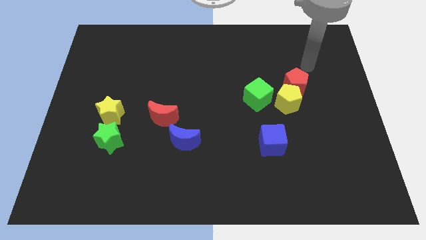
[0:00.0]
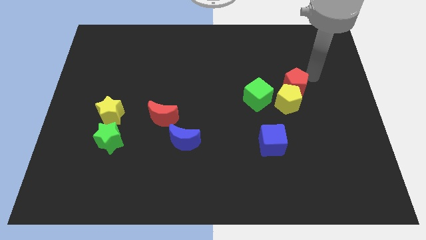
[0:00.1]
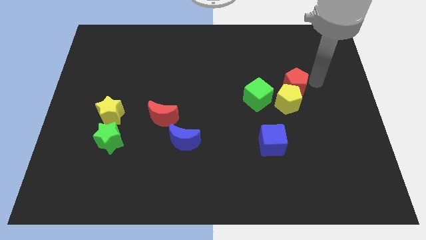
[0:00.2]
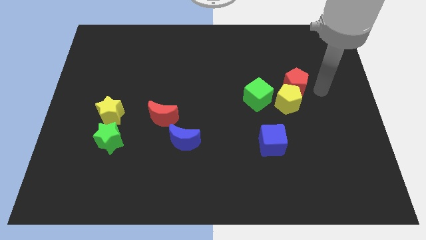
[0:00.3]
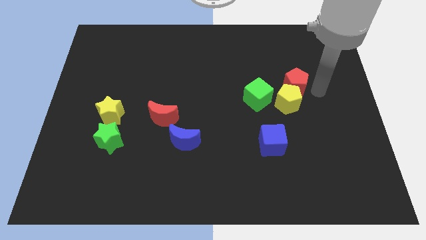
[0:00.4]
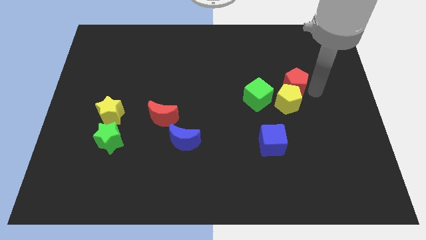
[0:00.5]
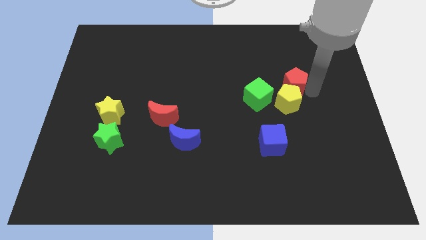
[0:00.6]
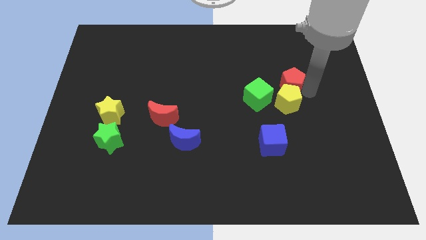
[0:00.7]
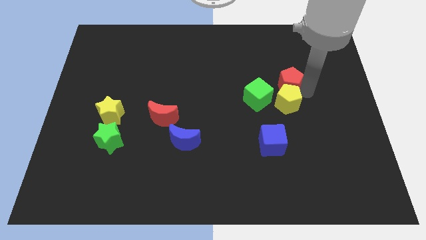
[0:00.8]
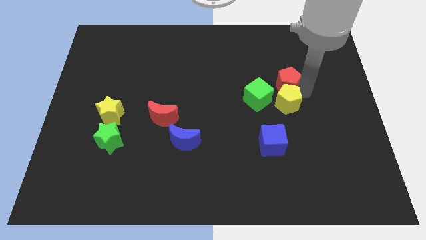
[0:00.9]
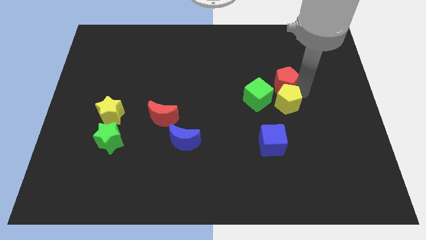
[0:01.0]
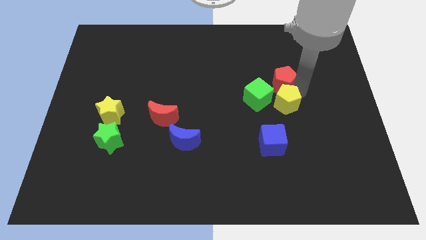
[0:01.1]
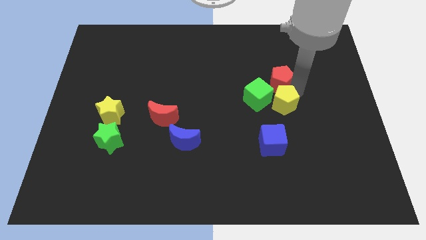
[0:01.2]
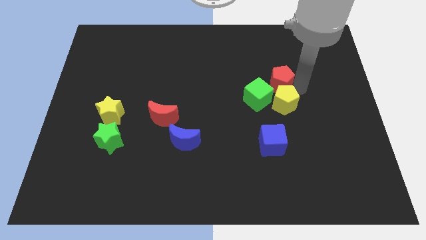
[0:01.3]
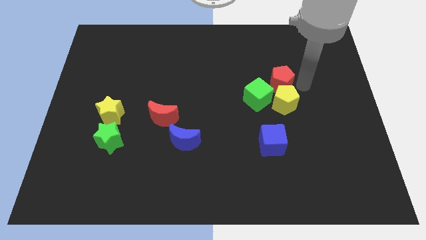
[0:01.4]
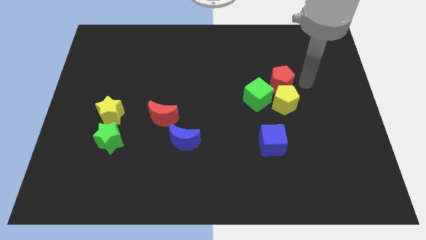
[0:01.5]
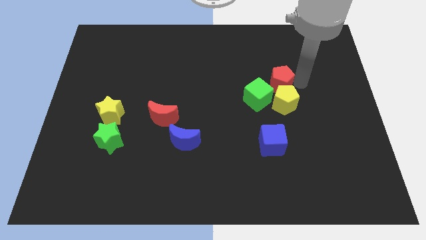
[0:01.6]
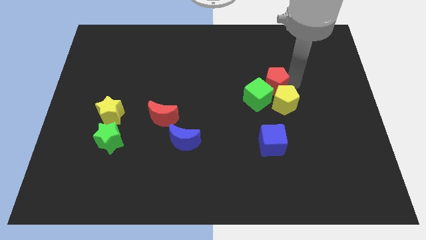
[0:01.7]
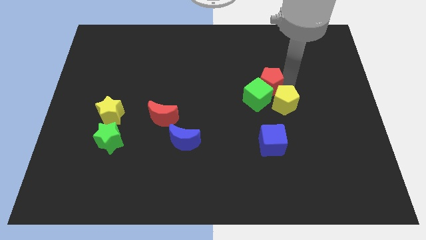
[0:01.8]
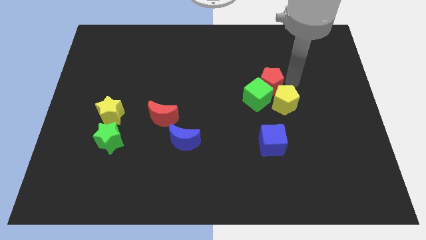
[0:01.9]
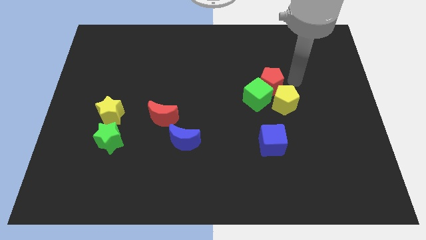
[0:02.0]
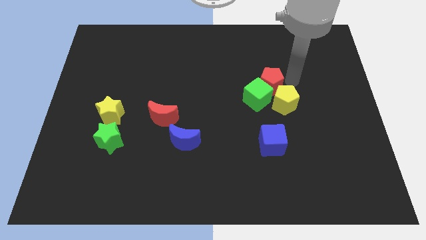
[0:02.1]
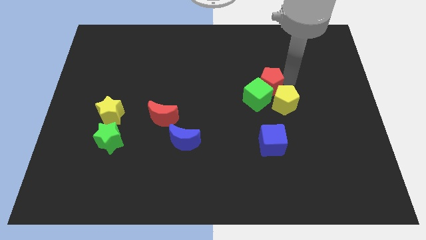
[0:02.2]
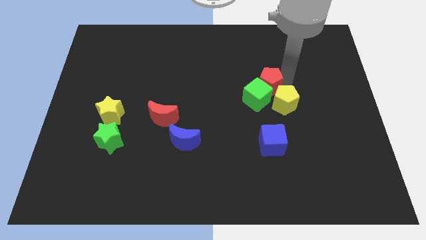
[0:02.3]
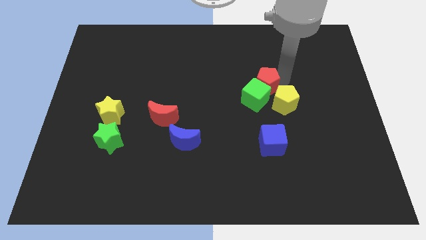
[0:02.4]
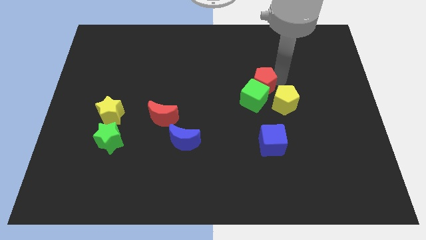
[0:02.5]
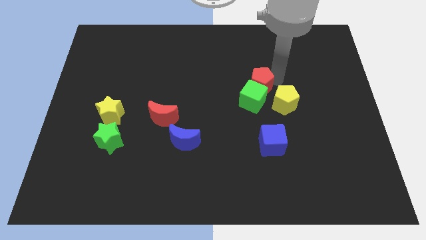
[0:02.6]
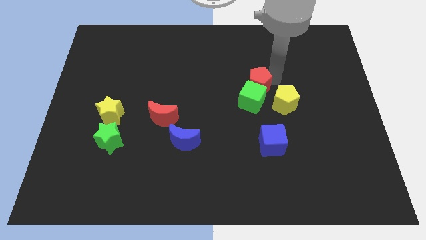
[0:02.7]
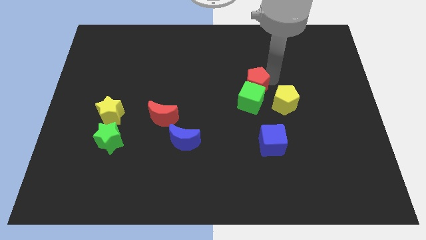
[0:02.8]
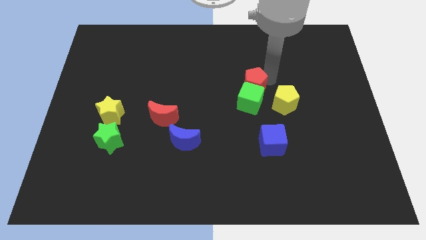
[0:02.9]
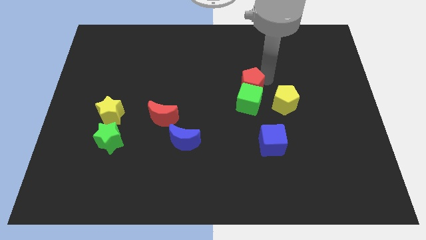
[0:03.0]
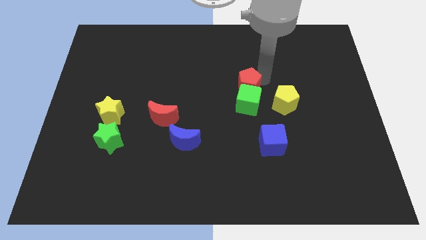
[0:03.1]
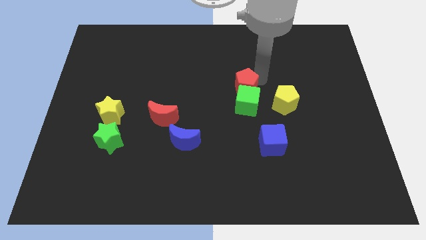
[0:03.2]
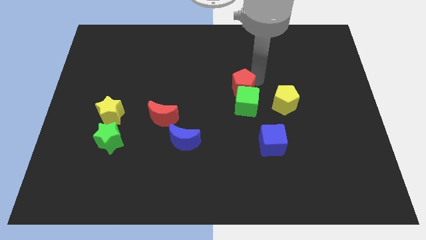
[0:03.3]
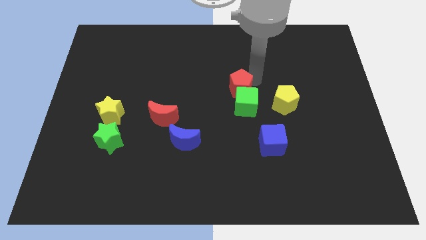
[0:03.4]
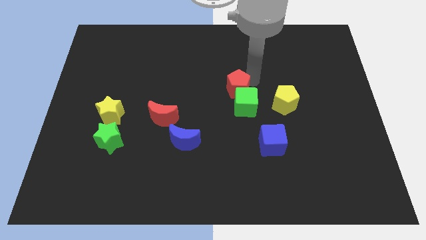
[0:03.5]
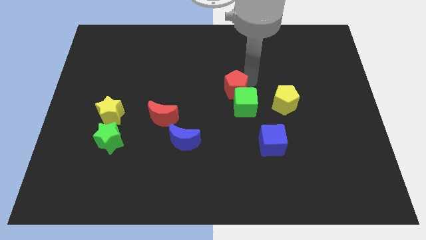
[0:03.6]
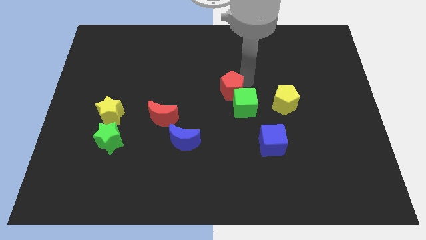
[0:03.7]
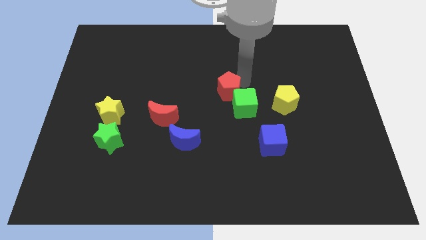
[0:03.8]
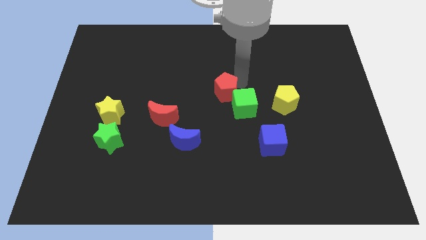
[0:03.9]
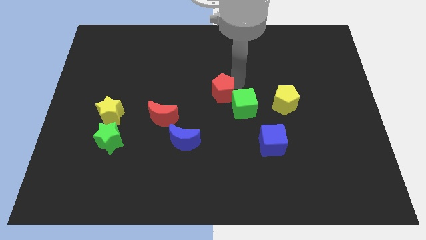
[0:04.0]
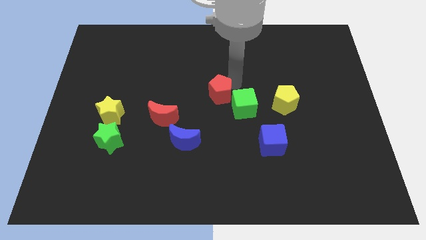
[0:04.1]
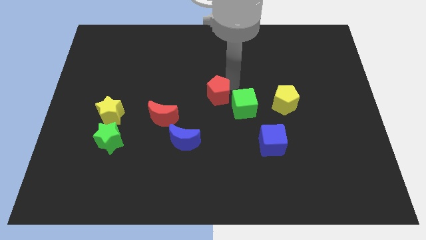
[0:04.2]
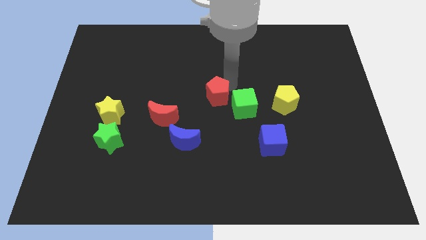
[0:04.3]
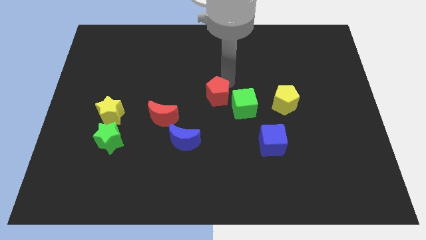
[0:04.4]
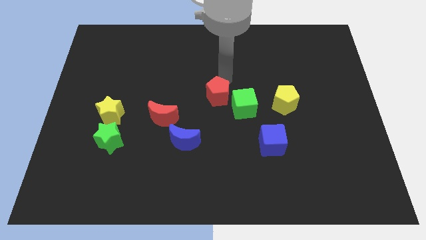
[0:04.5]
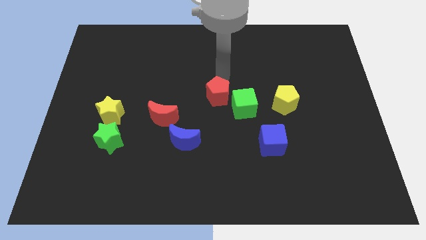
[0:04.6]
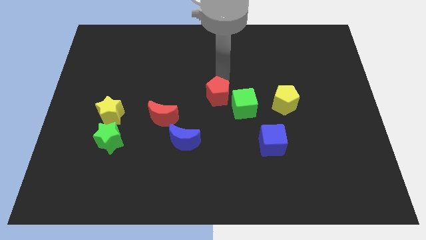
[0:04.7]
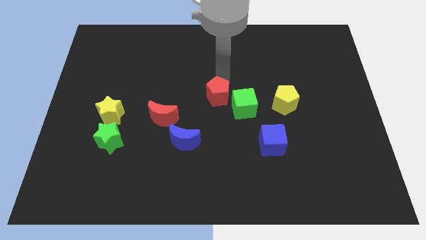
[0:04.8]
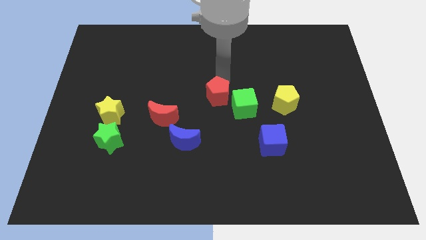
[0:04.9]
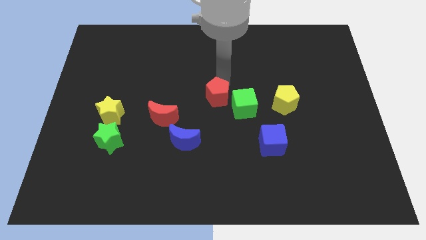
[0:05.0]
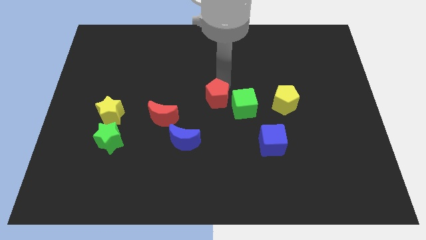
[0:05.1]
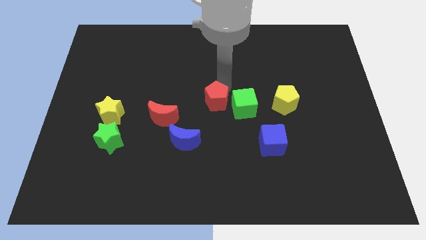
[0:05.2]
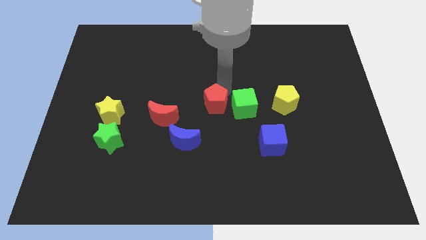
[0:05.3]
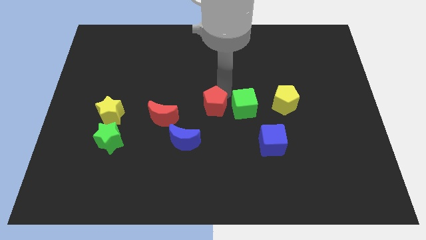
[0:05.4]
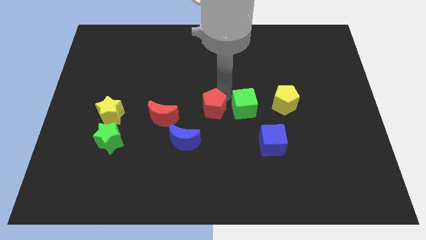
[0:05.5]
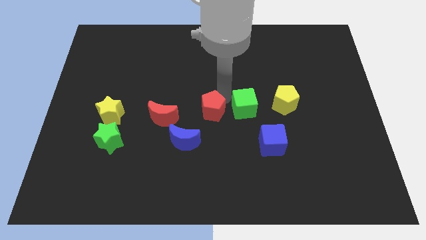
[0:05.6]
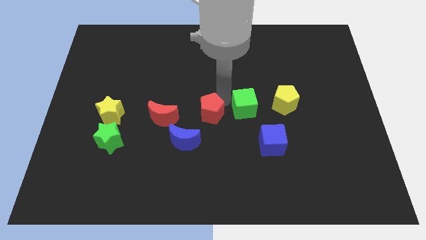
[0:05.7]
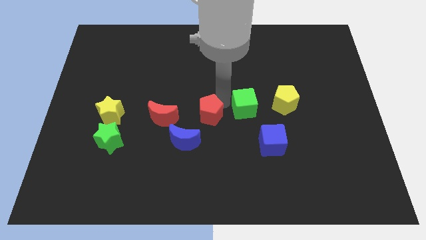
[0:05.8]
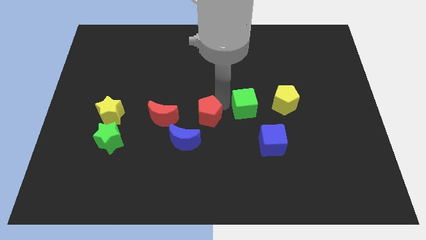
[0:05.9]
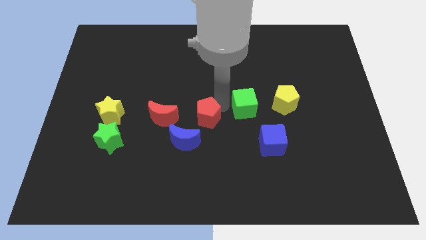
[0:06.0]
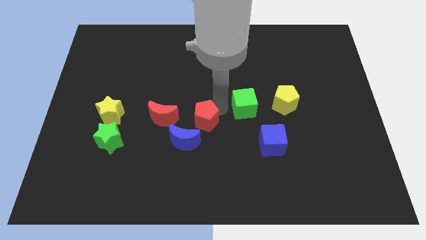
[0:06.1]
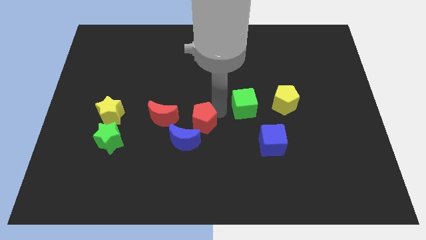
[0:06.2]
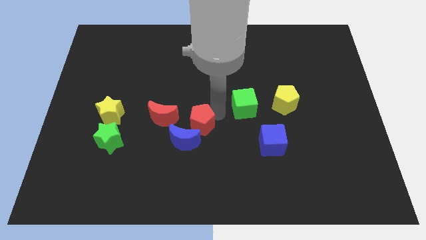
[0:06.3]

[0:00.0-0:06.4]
push the red pentagon to the blue moon
